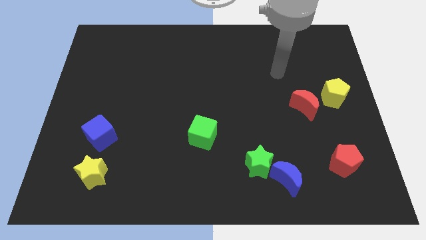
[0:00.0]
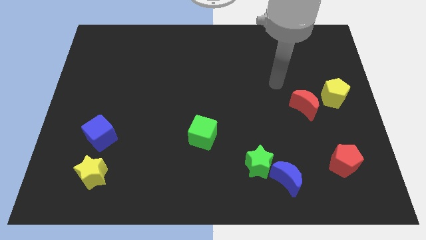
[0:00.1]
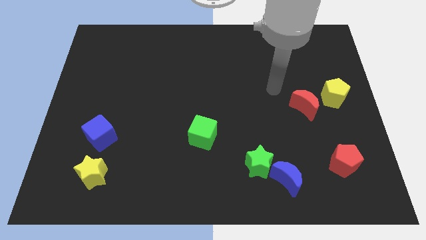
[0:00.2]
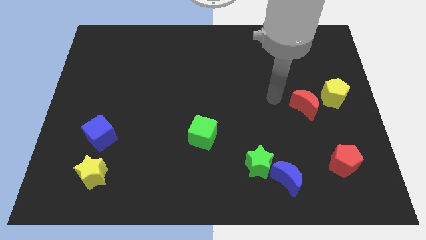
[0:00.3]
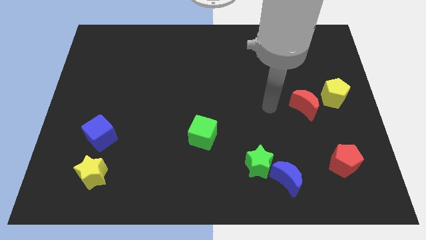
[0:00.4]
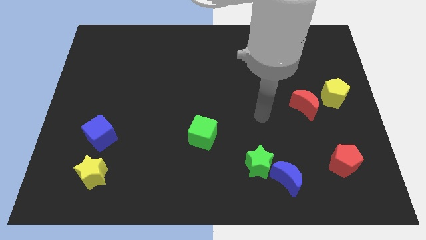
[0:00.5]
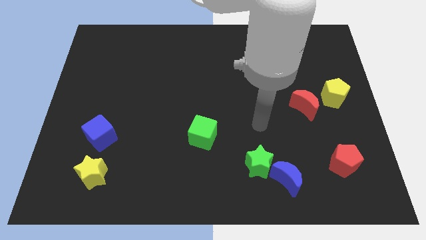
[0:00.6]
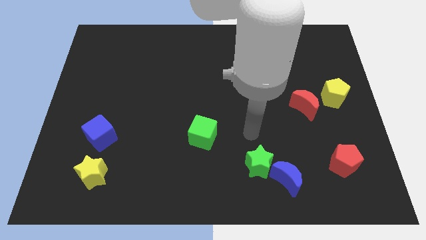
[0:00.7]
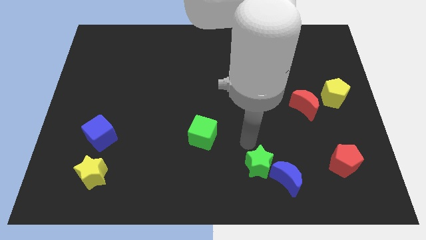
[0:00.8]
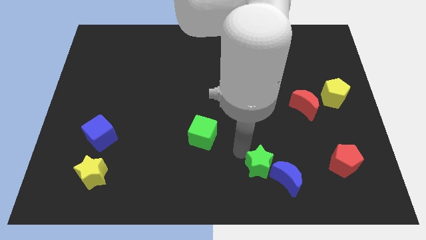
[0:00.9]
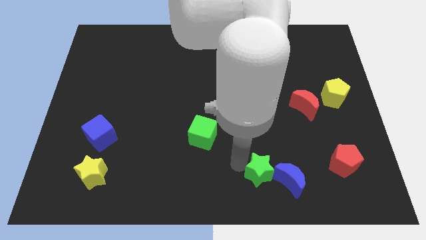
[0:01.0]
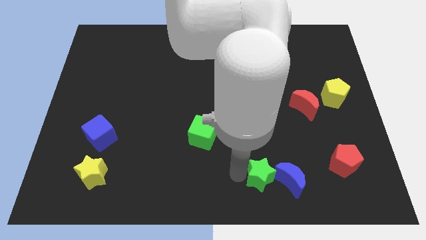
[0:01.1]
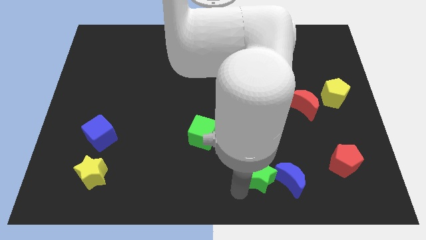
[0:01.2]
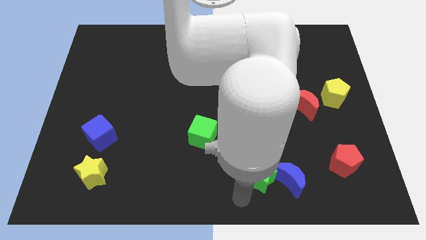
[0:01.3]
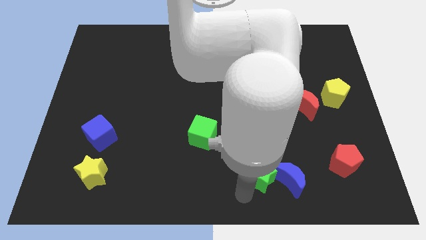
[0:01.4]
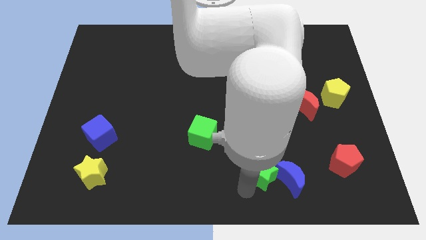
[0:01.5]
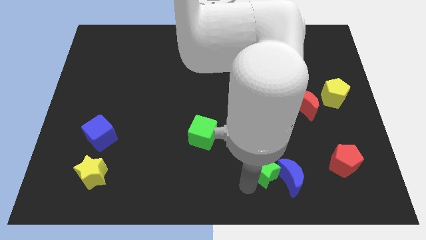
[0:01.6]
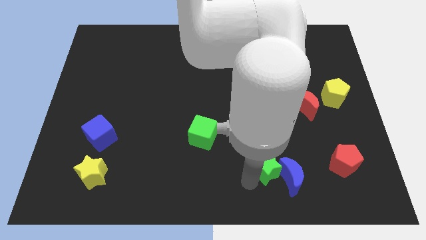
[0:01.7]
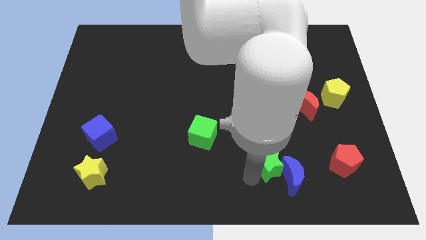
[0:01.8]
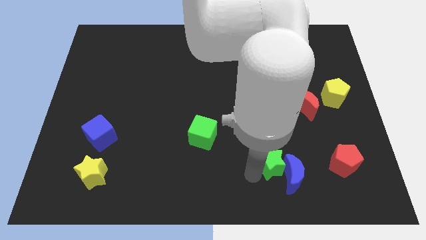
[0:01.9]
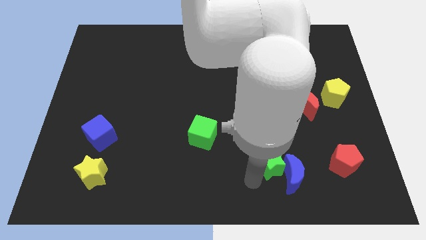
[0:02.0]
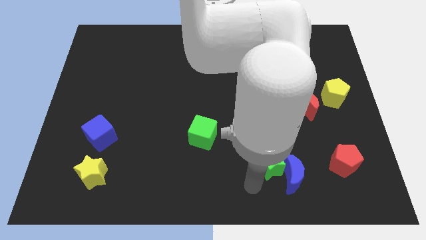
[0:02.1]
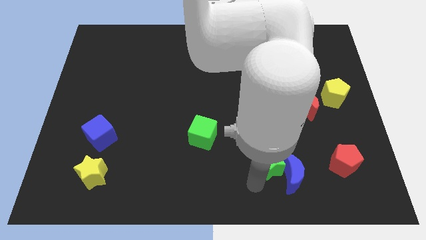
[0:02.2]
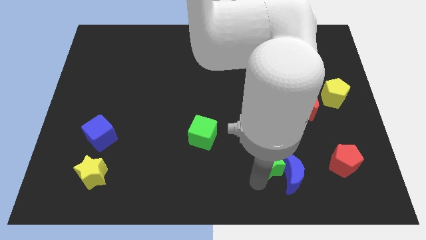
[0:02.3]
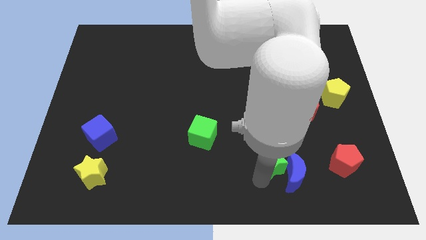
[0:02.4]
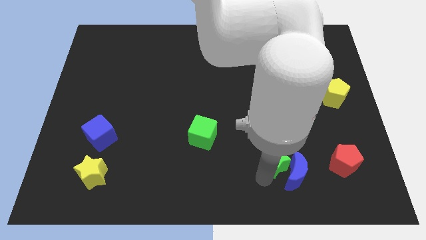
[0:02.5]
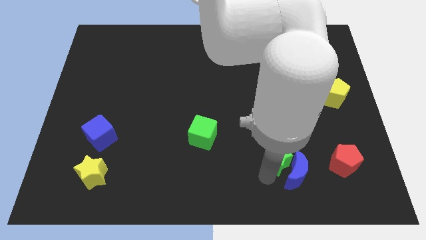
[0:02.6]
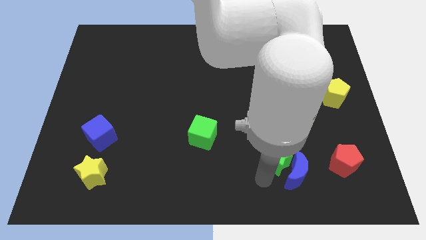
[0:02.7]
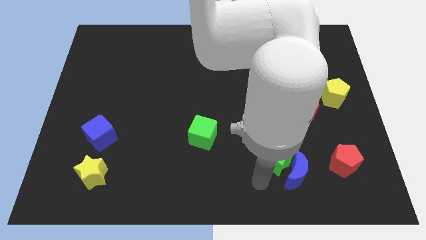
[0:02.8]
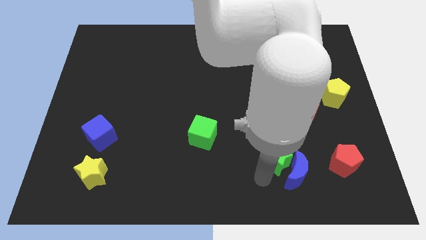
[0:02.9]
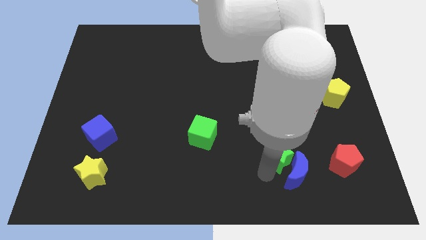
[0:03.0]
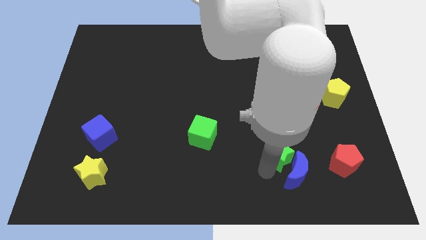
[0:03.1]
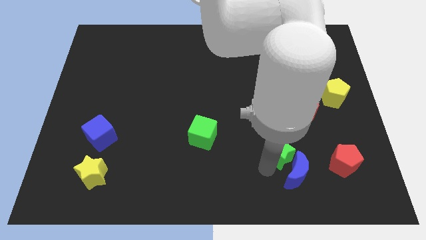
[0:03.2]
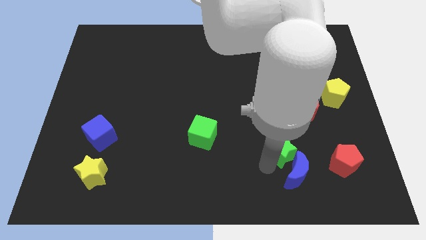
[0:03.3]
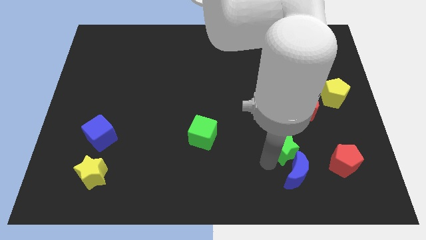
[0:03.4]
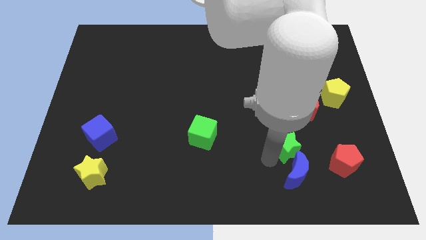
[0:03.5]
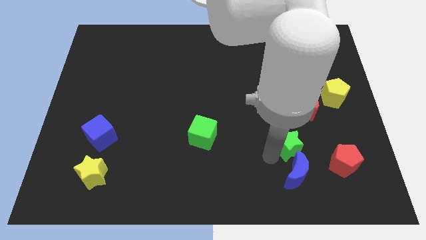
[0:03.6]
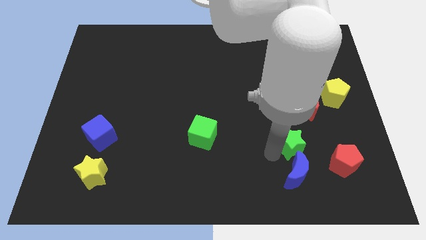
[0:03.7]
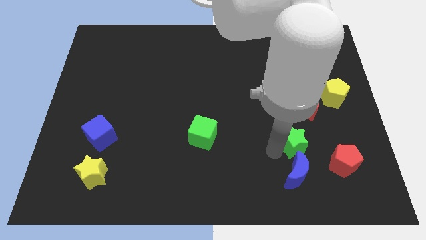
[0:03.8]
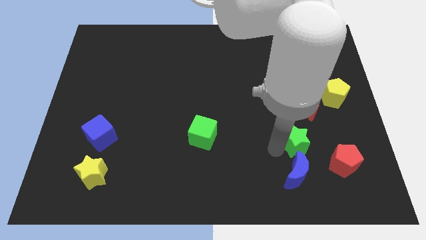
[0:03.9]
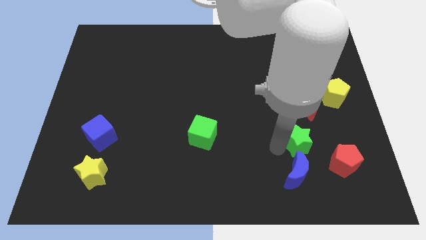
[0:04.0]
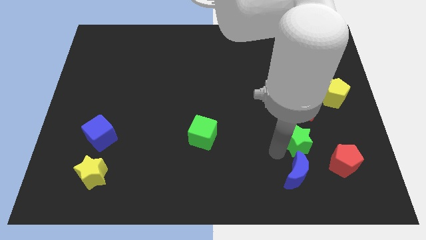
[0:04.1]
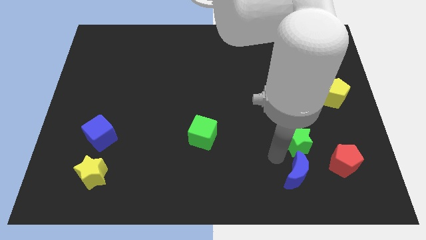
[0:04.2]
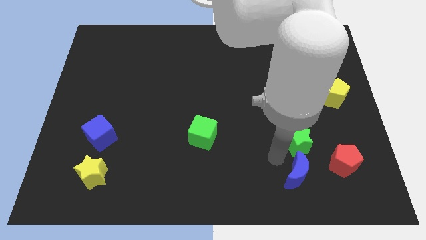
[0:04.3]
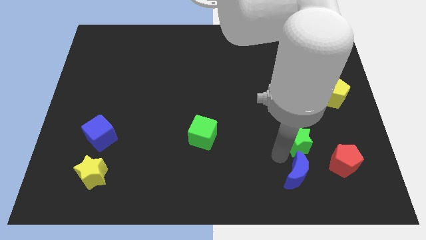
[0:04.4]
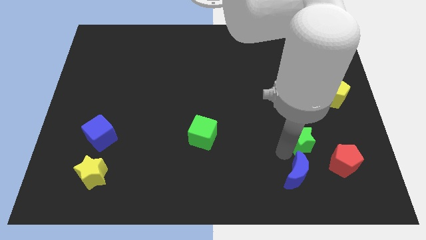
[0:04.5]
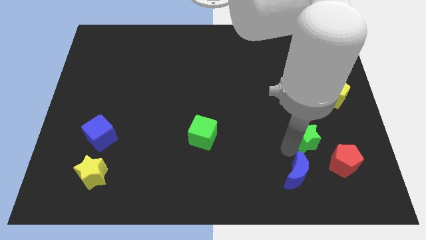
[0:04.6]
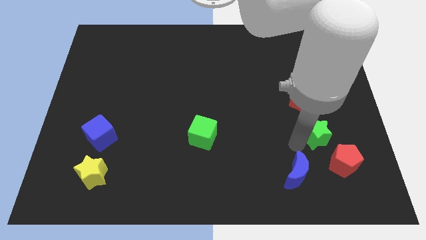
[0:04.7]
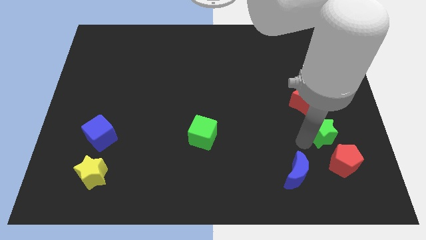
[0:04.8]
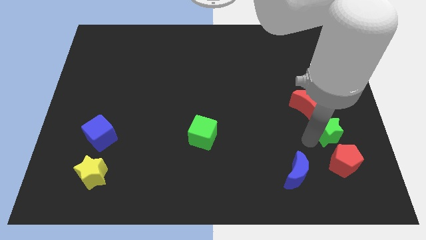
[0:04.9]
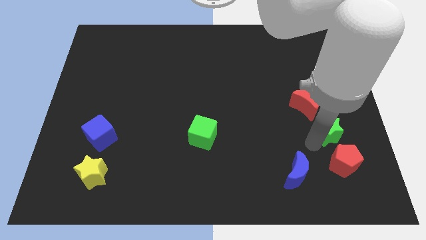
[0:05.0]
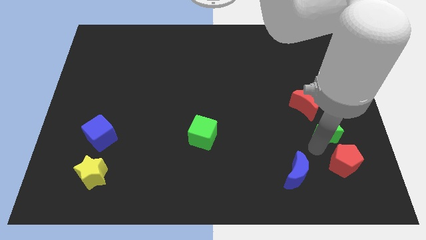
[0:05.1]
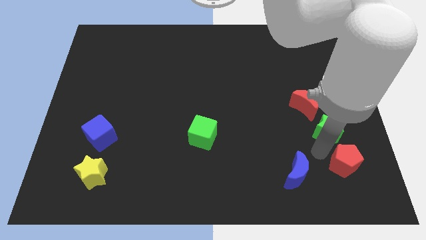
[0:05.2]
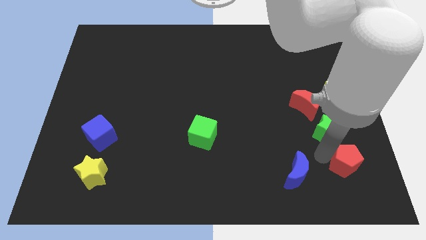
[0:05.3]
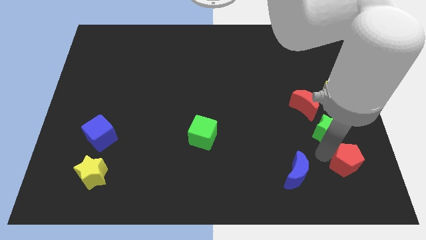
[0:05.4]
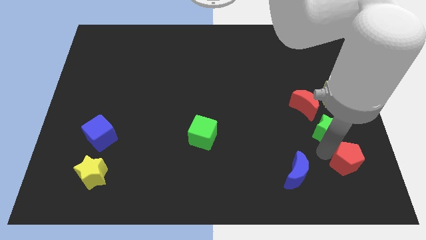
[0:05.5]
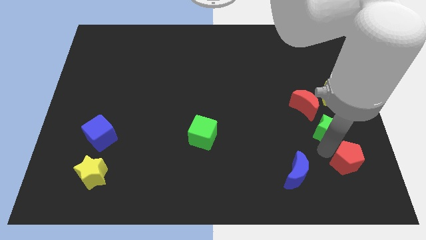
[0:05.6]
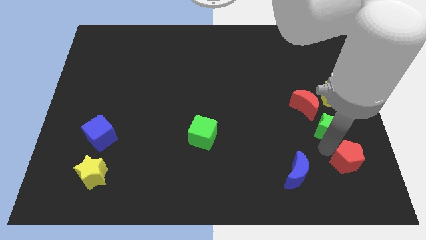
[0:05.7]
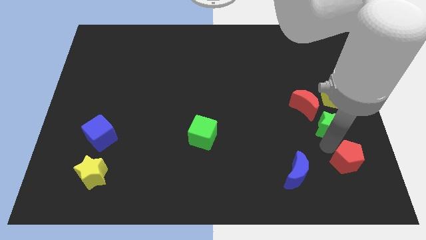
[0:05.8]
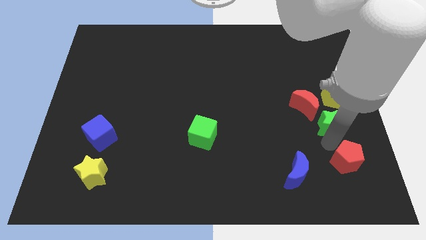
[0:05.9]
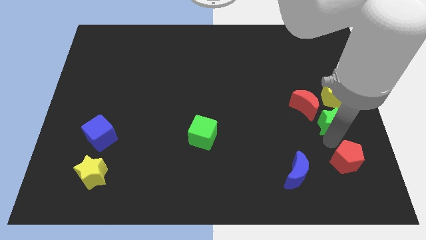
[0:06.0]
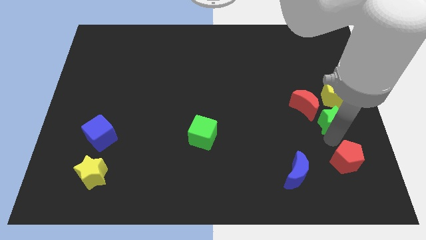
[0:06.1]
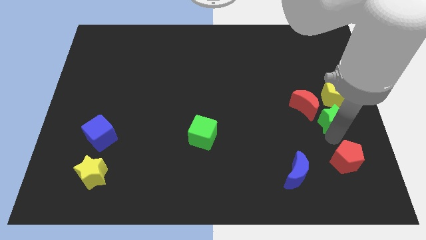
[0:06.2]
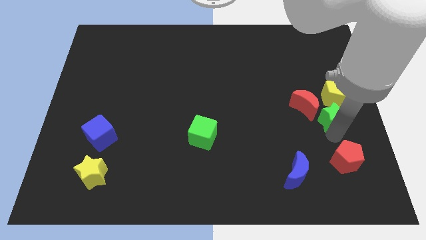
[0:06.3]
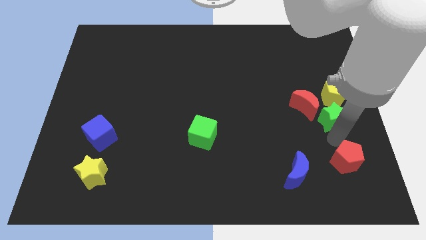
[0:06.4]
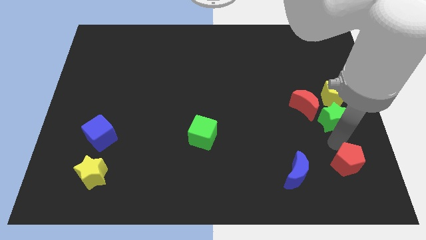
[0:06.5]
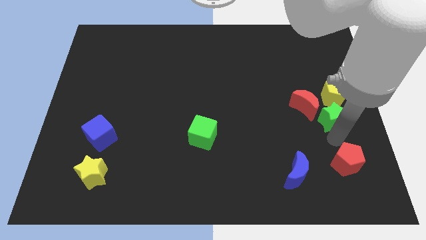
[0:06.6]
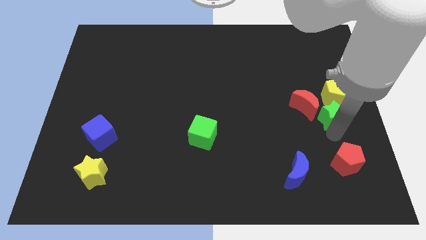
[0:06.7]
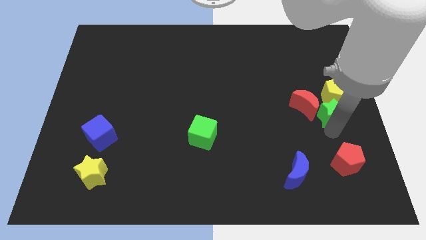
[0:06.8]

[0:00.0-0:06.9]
push the green star to the yellow pentagon

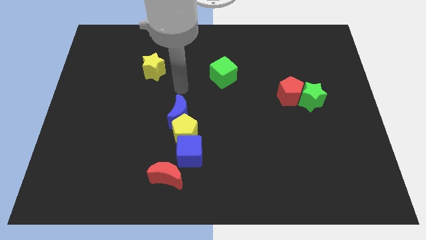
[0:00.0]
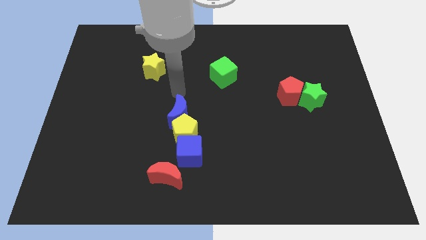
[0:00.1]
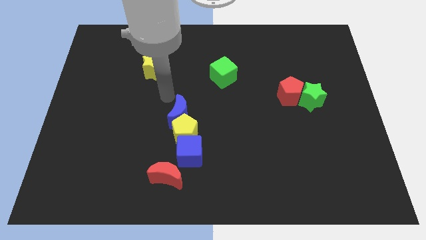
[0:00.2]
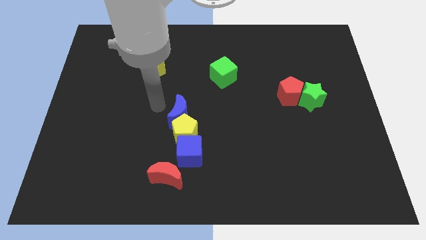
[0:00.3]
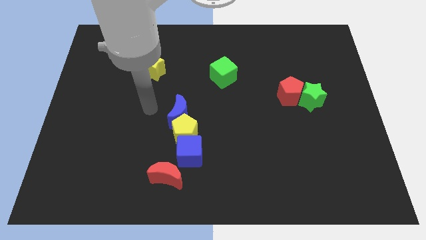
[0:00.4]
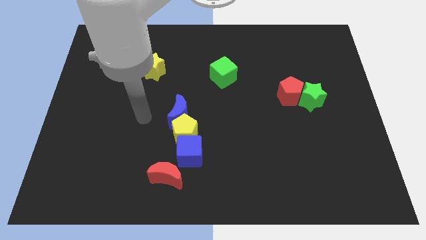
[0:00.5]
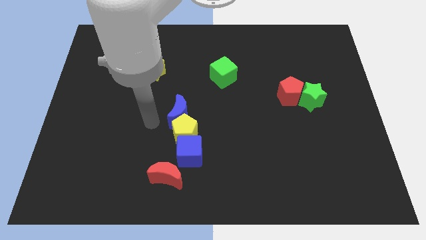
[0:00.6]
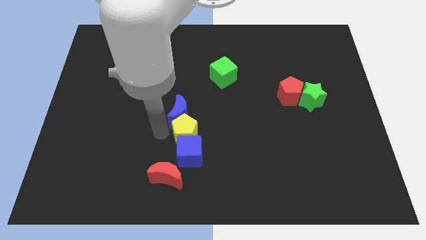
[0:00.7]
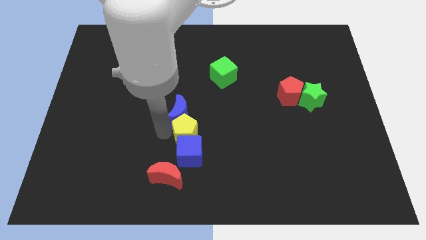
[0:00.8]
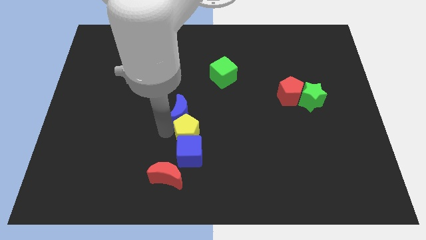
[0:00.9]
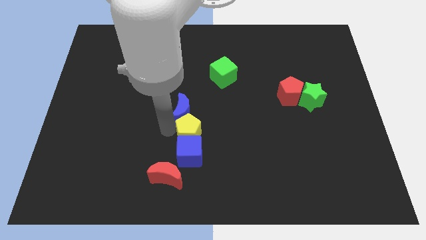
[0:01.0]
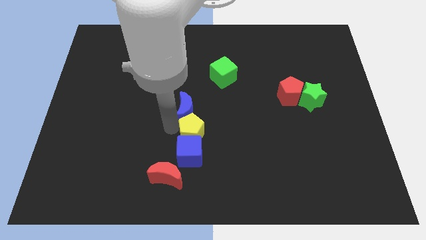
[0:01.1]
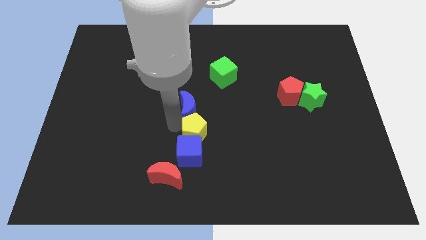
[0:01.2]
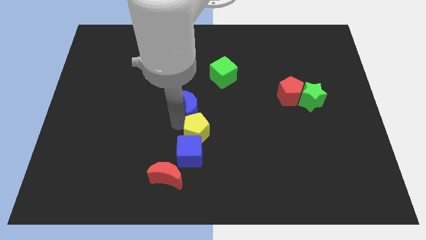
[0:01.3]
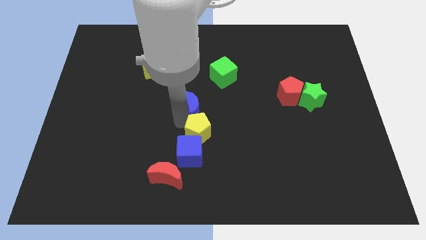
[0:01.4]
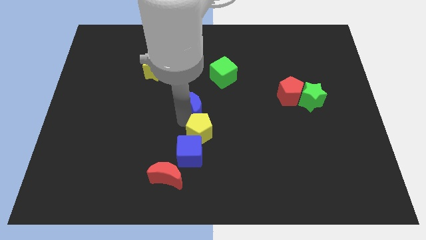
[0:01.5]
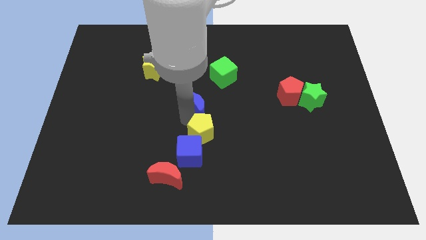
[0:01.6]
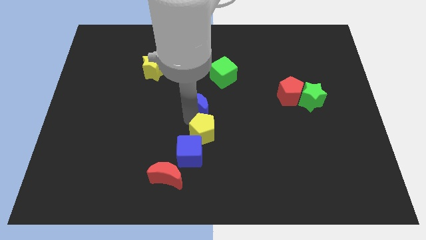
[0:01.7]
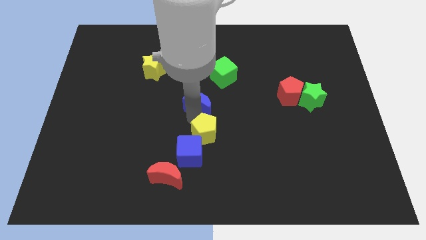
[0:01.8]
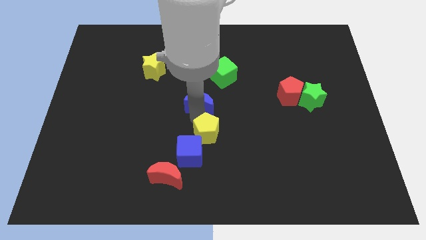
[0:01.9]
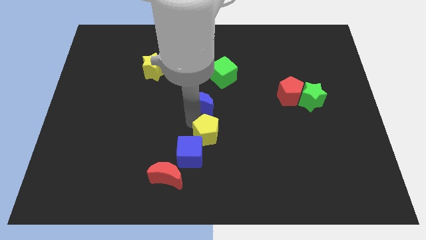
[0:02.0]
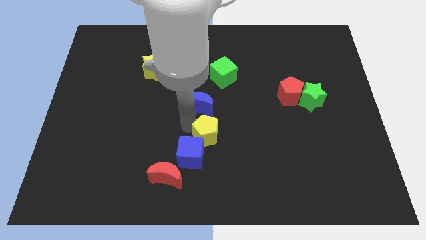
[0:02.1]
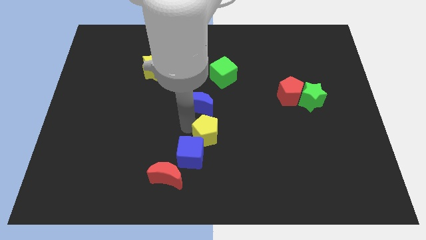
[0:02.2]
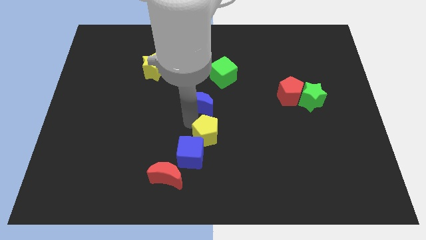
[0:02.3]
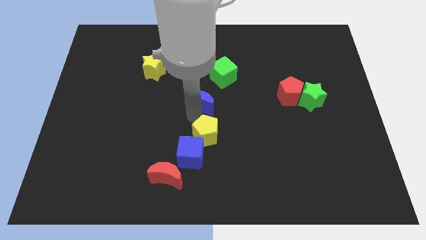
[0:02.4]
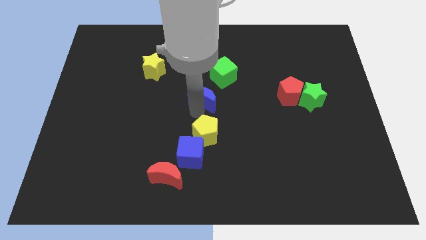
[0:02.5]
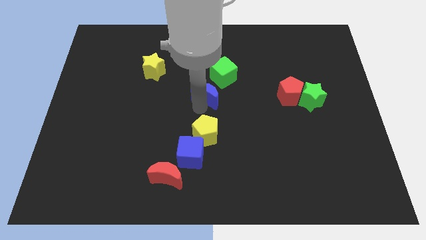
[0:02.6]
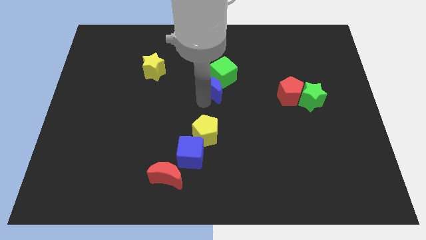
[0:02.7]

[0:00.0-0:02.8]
slide the blue moon to the green cube
